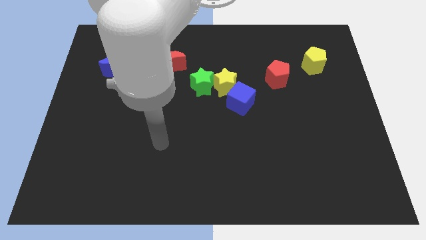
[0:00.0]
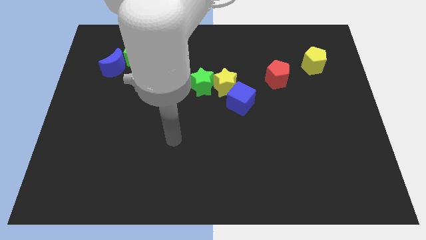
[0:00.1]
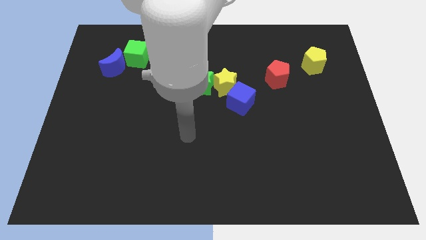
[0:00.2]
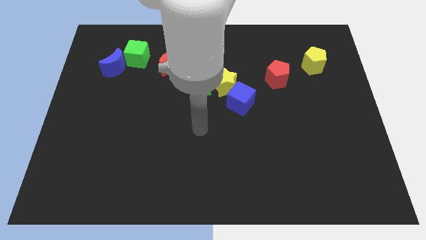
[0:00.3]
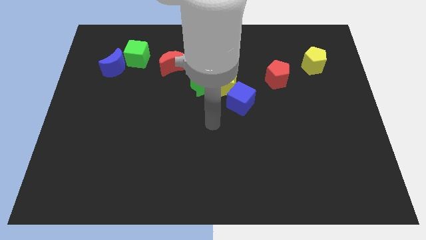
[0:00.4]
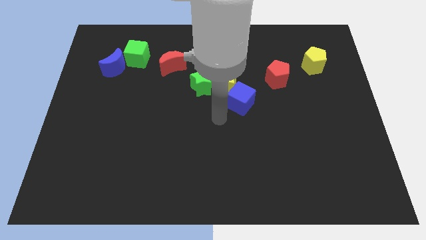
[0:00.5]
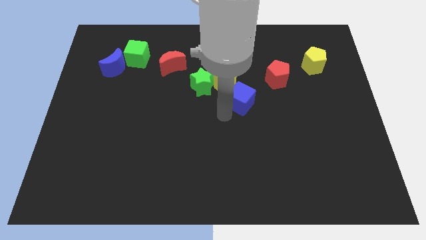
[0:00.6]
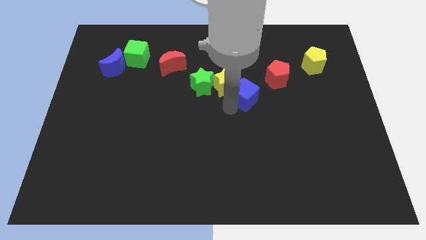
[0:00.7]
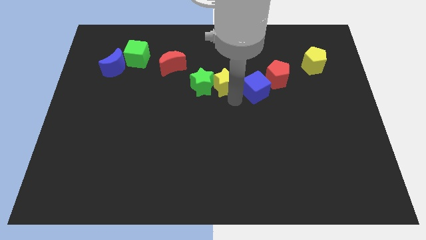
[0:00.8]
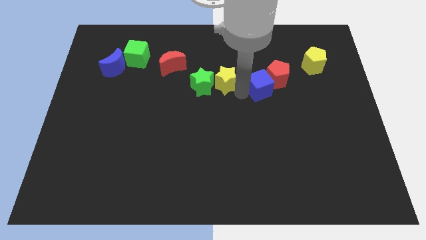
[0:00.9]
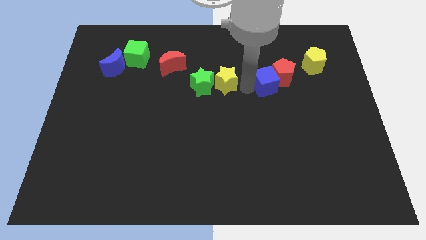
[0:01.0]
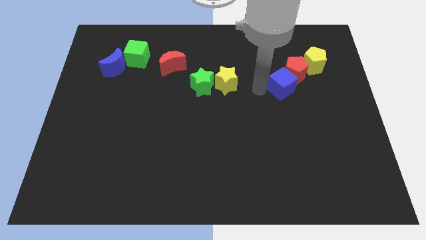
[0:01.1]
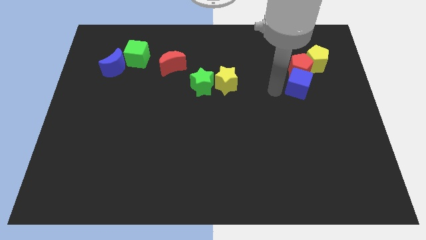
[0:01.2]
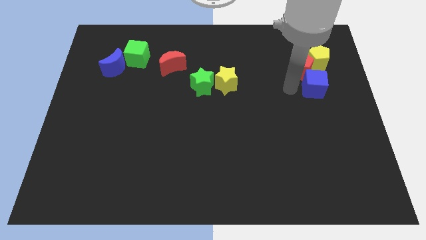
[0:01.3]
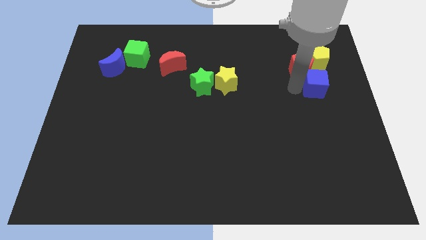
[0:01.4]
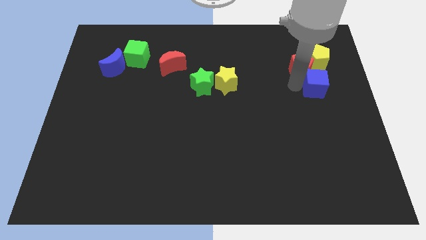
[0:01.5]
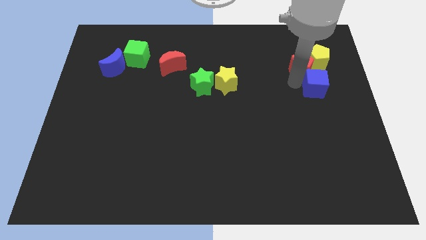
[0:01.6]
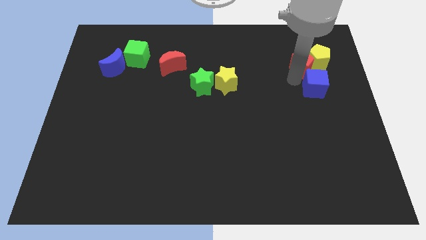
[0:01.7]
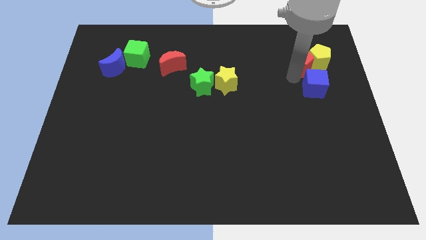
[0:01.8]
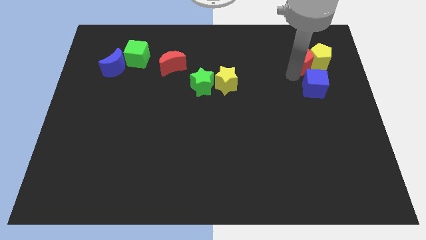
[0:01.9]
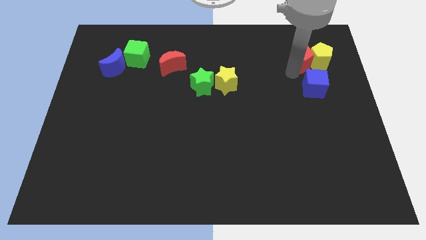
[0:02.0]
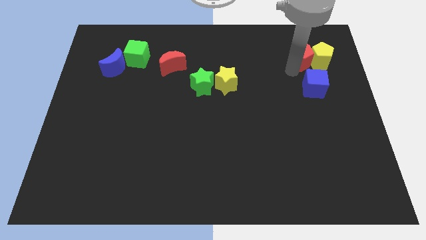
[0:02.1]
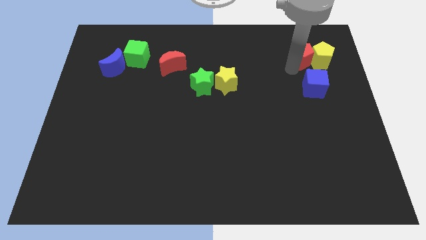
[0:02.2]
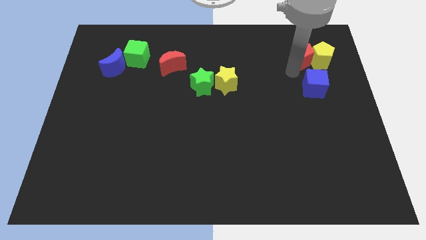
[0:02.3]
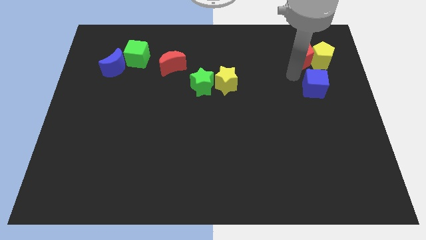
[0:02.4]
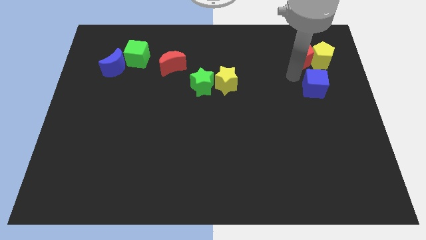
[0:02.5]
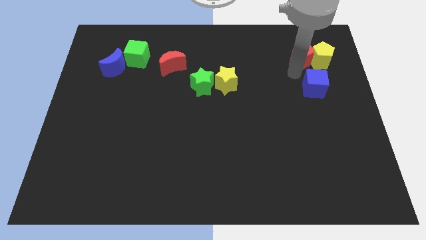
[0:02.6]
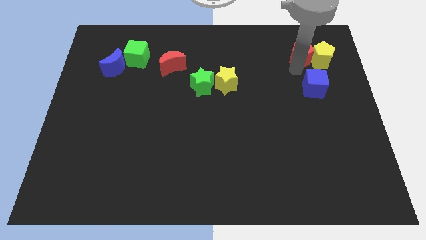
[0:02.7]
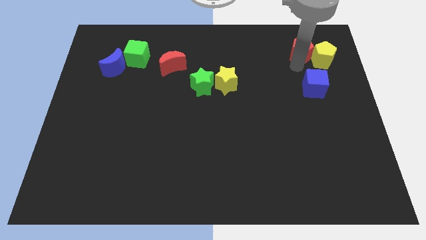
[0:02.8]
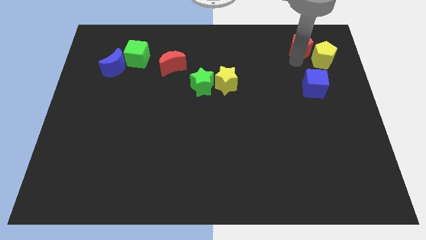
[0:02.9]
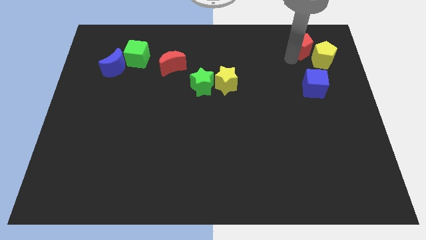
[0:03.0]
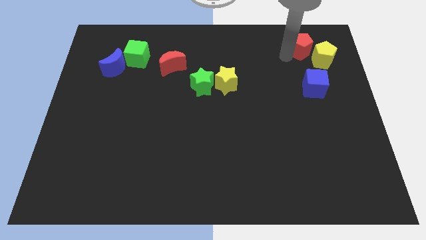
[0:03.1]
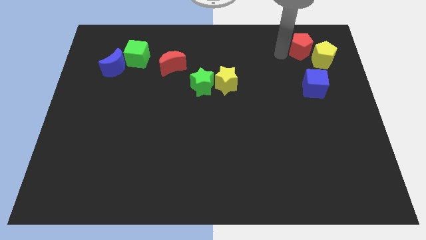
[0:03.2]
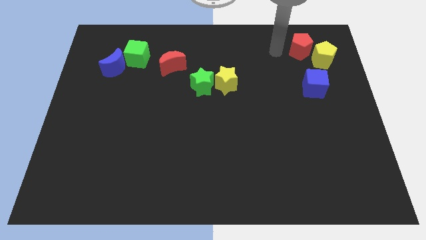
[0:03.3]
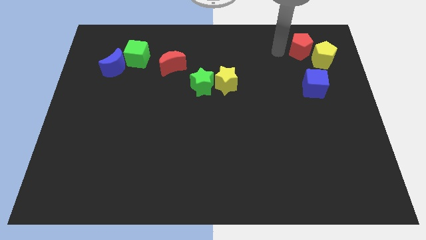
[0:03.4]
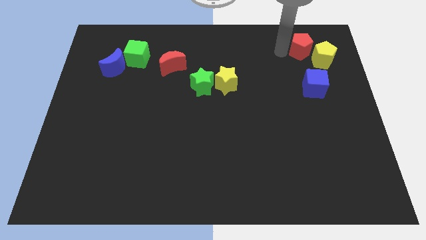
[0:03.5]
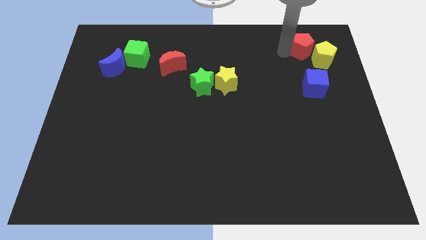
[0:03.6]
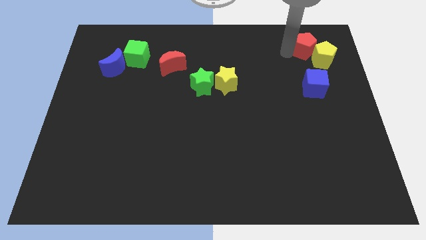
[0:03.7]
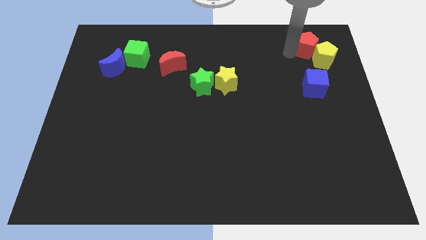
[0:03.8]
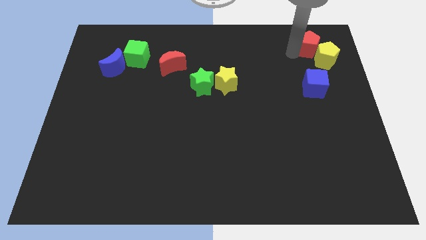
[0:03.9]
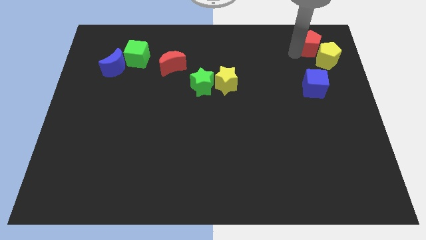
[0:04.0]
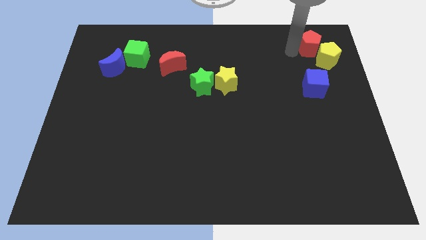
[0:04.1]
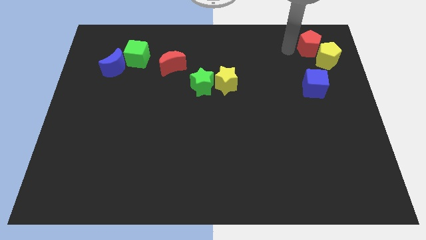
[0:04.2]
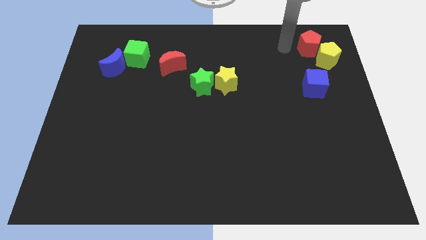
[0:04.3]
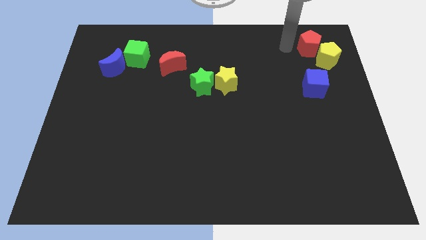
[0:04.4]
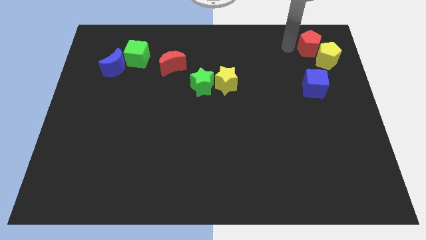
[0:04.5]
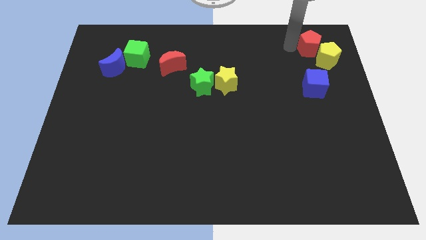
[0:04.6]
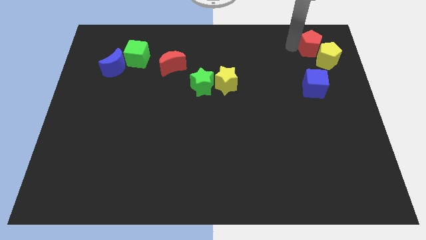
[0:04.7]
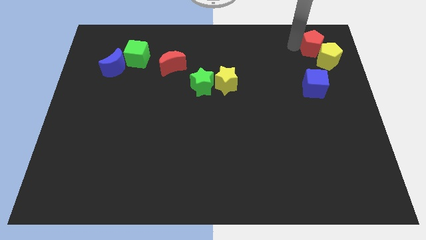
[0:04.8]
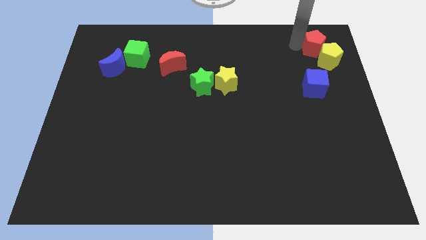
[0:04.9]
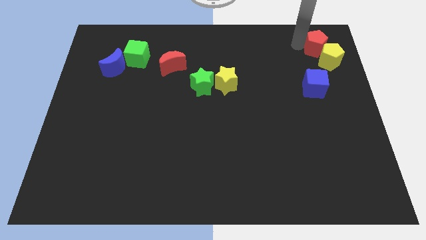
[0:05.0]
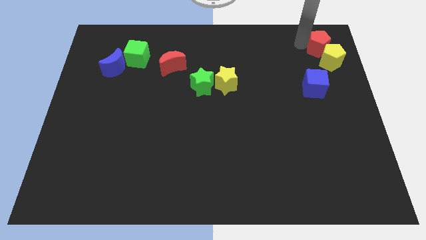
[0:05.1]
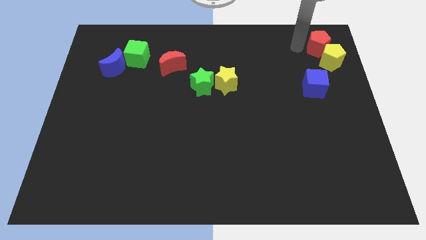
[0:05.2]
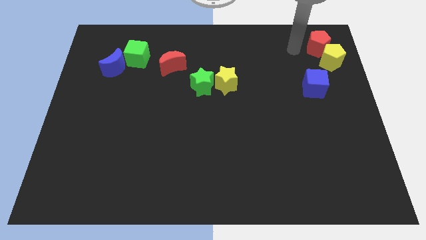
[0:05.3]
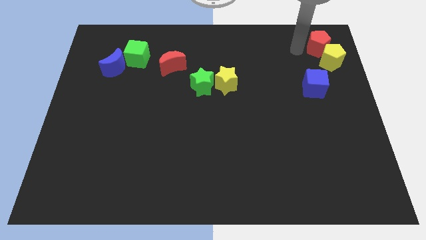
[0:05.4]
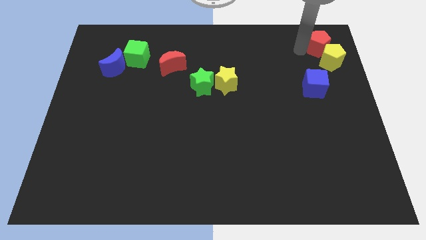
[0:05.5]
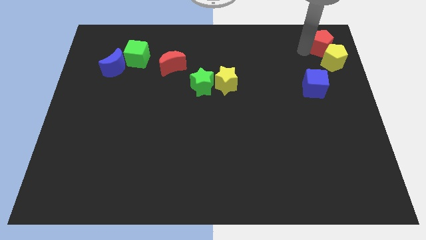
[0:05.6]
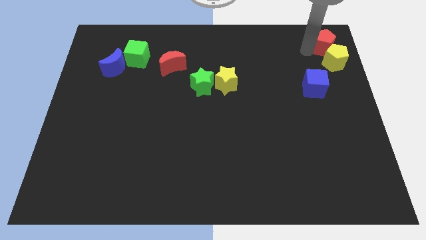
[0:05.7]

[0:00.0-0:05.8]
slide the red pentagon to the top right of the board

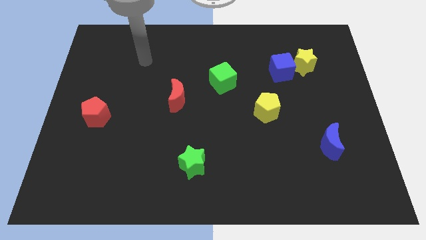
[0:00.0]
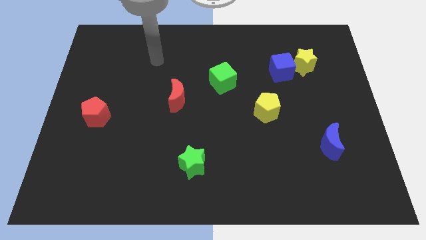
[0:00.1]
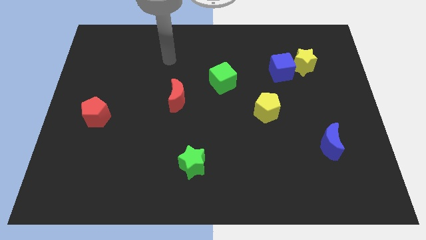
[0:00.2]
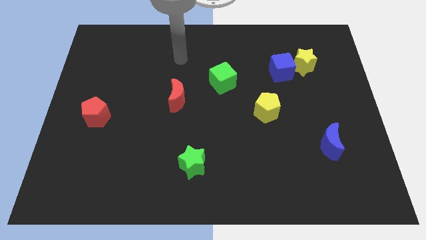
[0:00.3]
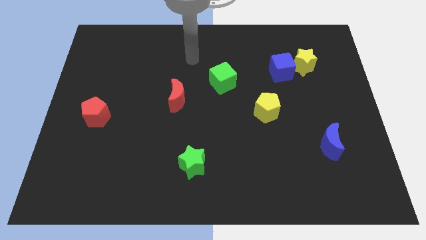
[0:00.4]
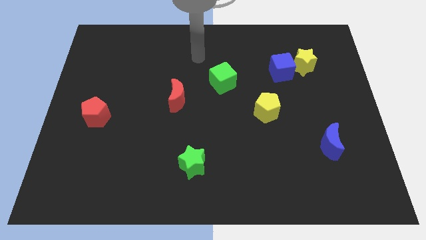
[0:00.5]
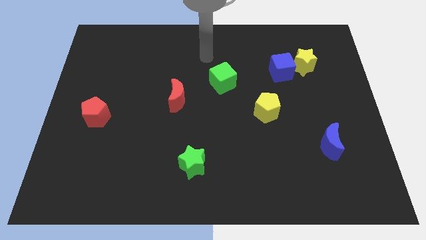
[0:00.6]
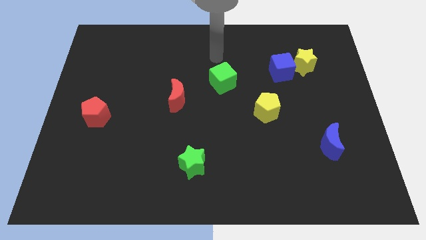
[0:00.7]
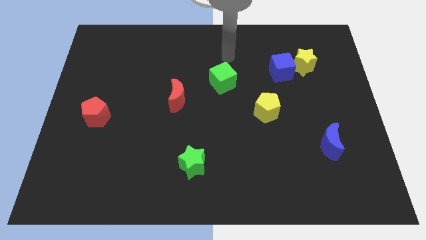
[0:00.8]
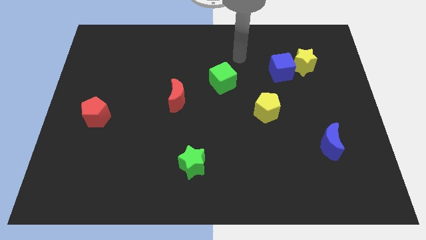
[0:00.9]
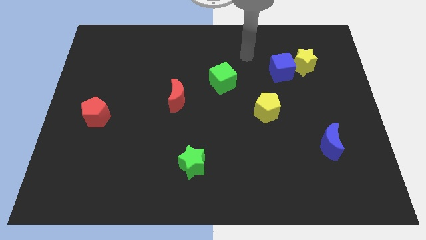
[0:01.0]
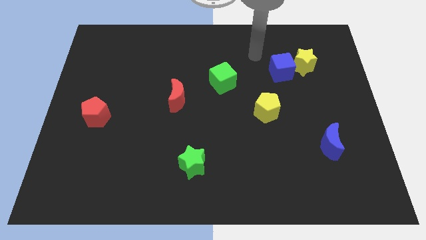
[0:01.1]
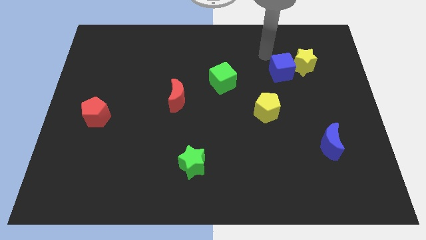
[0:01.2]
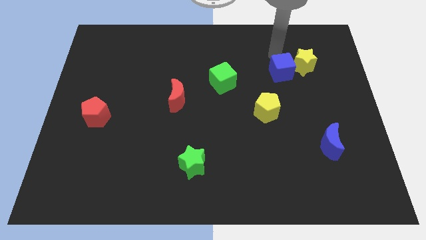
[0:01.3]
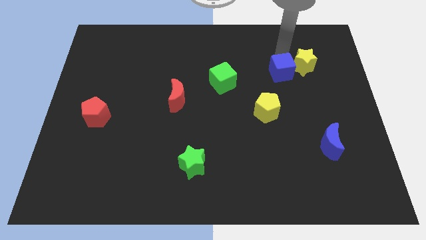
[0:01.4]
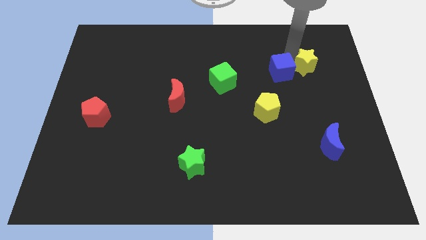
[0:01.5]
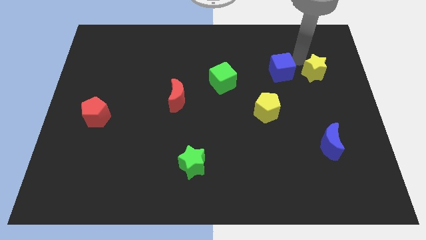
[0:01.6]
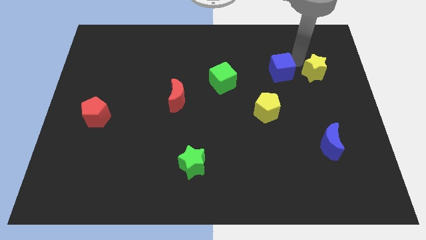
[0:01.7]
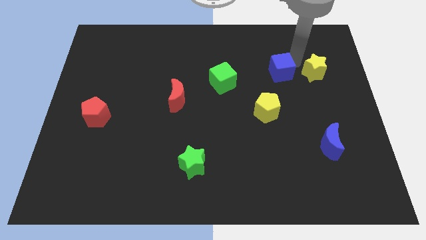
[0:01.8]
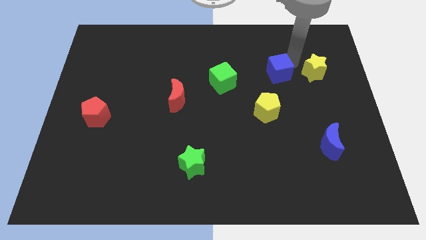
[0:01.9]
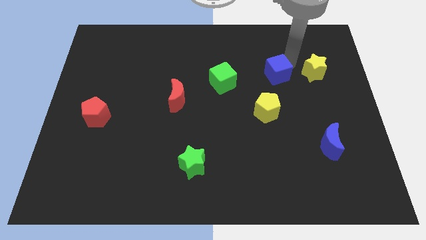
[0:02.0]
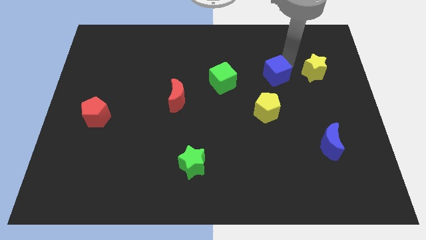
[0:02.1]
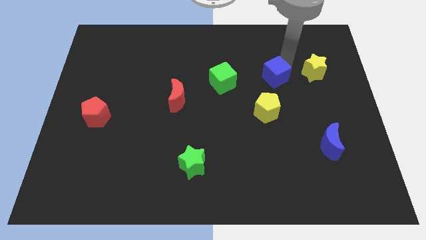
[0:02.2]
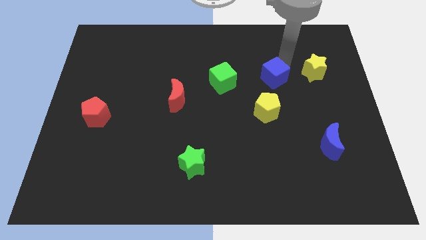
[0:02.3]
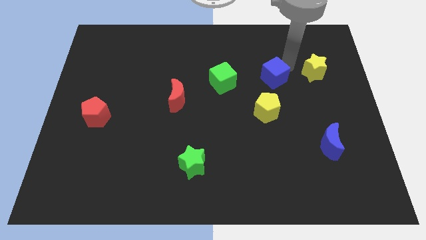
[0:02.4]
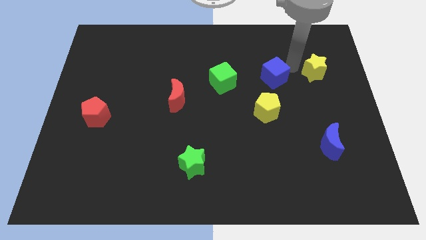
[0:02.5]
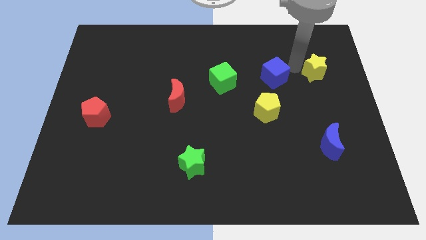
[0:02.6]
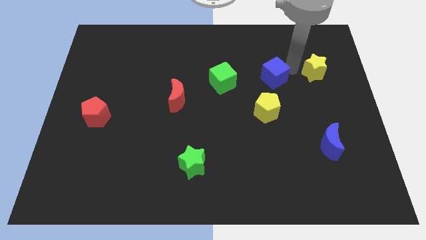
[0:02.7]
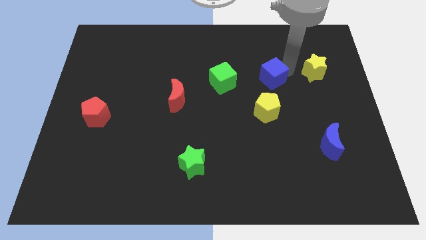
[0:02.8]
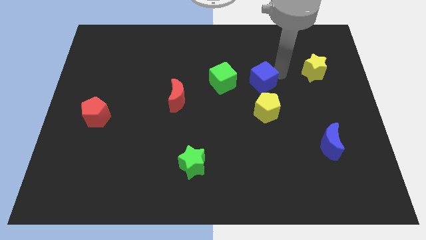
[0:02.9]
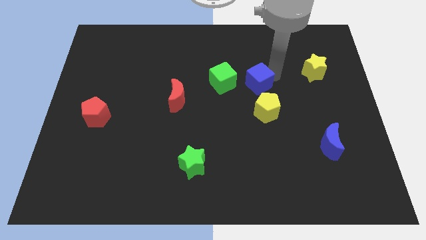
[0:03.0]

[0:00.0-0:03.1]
slide the blue cube to the middle
